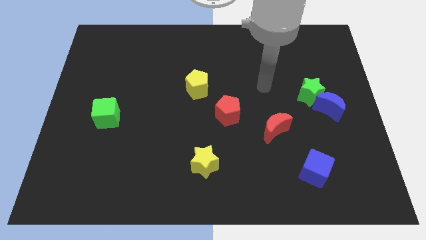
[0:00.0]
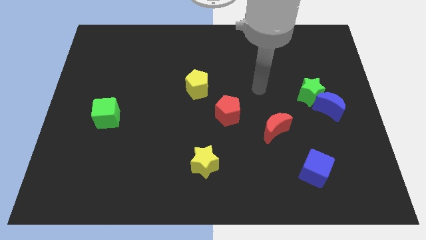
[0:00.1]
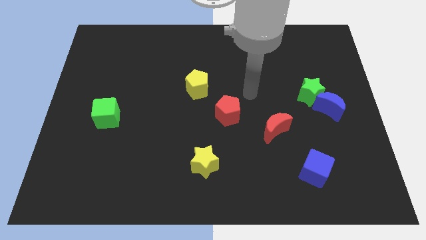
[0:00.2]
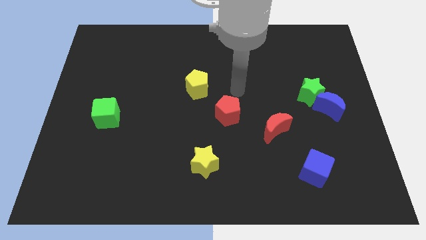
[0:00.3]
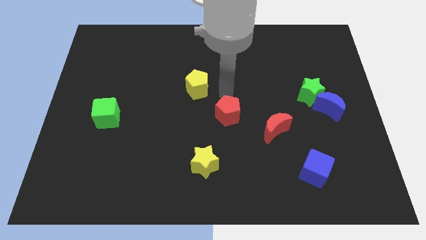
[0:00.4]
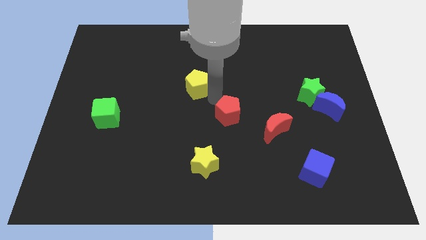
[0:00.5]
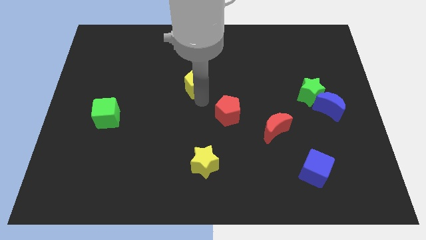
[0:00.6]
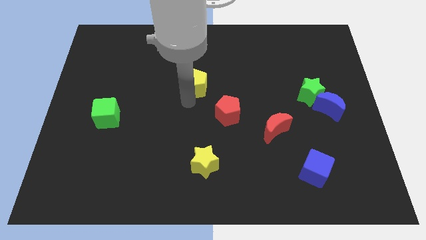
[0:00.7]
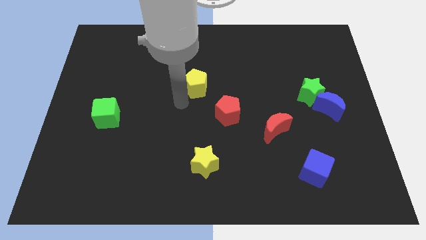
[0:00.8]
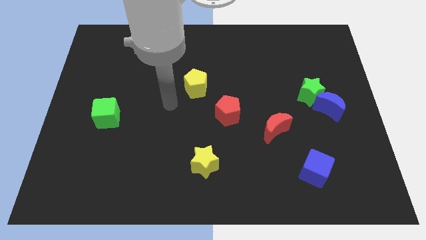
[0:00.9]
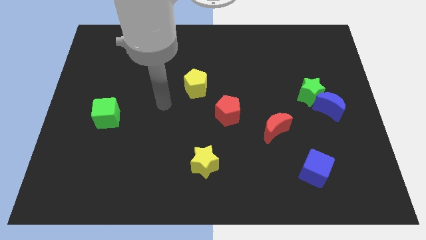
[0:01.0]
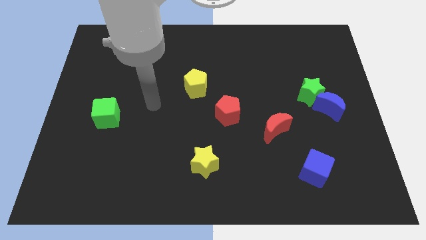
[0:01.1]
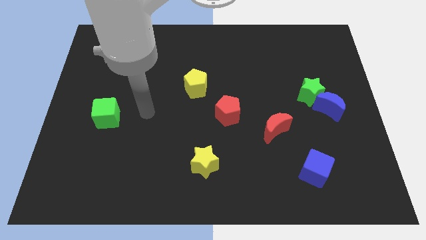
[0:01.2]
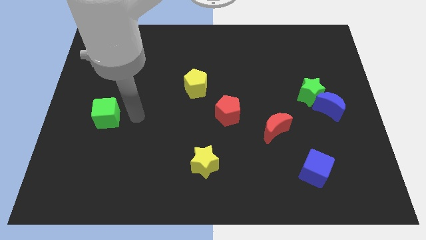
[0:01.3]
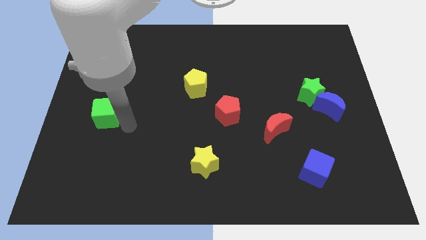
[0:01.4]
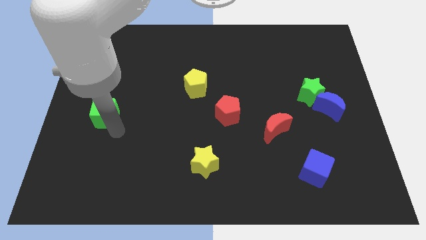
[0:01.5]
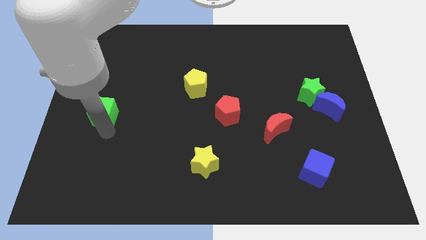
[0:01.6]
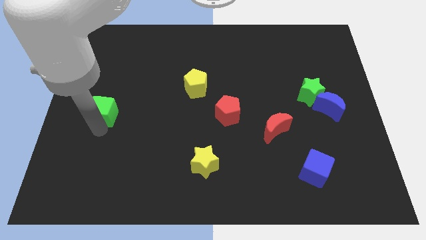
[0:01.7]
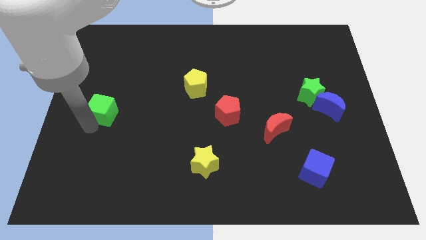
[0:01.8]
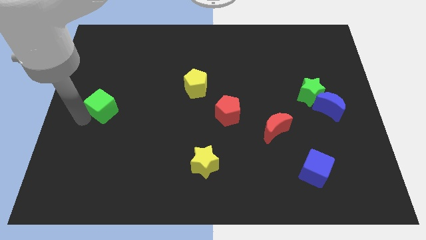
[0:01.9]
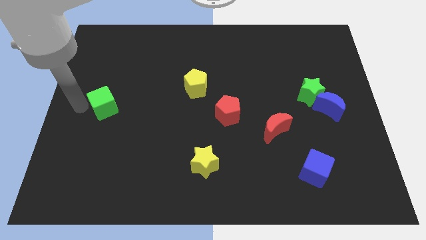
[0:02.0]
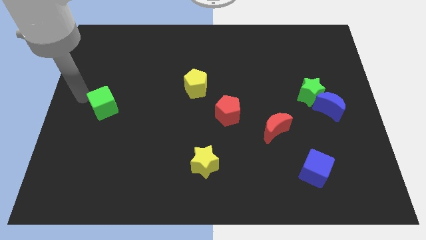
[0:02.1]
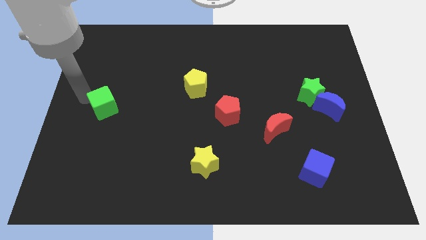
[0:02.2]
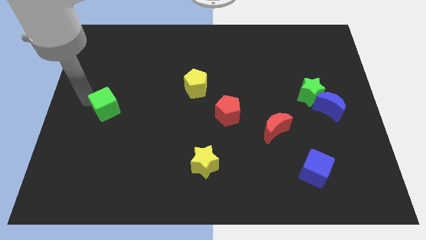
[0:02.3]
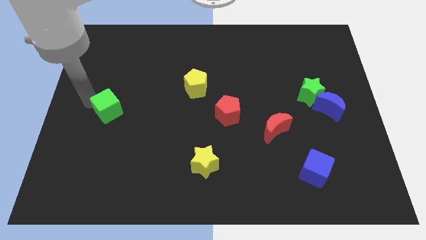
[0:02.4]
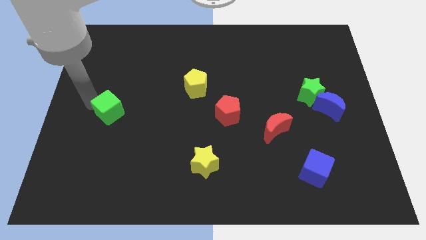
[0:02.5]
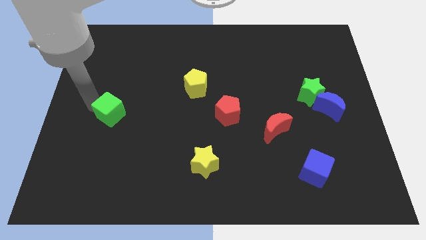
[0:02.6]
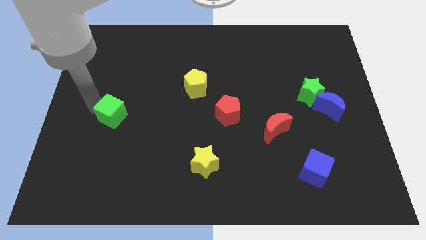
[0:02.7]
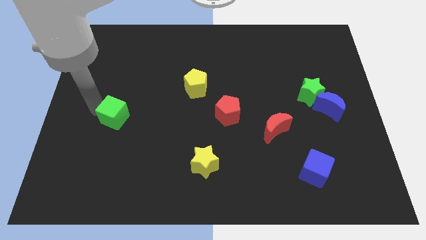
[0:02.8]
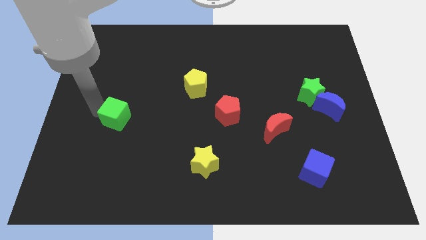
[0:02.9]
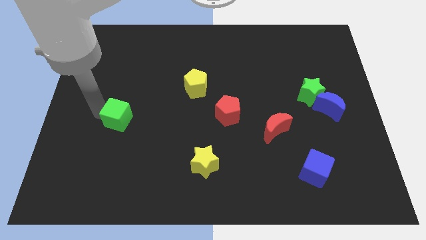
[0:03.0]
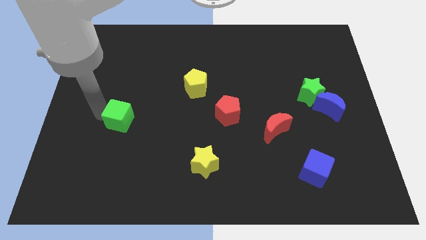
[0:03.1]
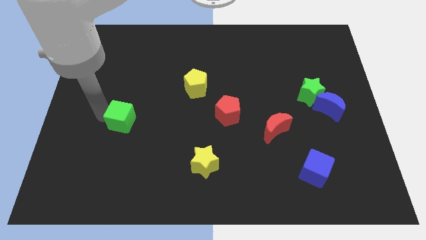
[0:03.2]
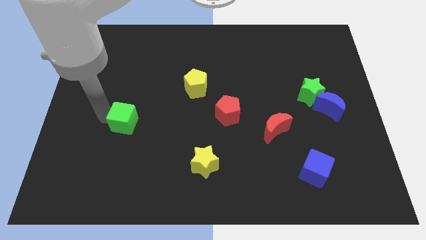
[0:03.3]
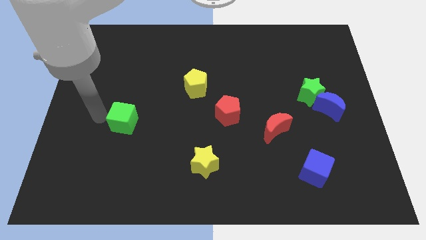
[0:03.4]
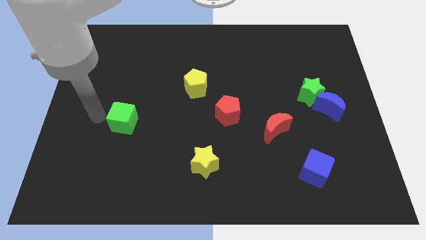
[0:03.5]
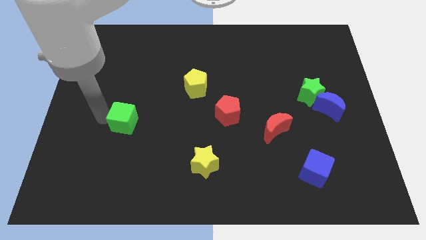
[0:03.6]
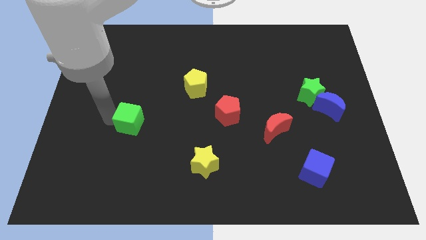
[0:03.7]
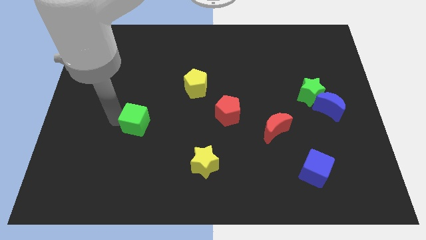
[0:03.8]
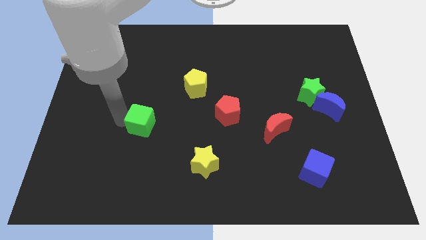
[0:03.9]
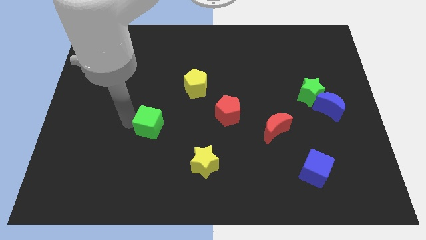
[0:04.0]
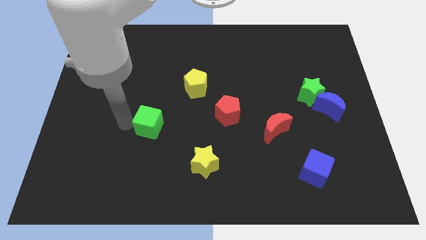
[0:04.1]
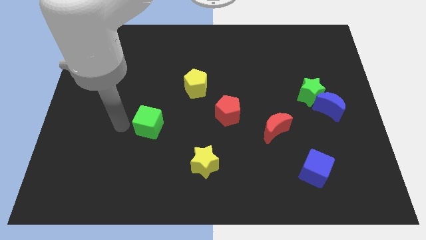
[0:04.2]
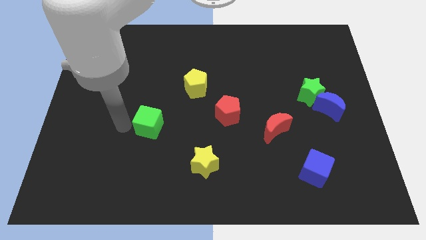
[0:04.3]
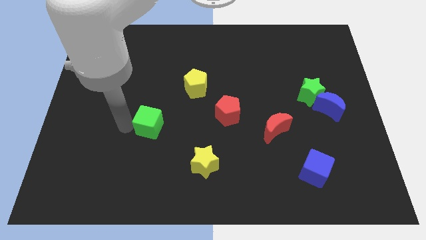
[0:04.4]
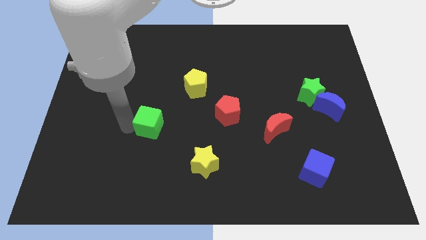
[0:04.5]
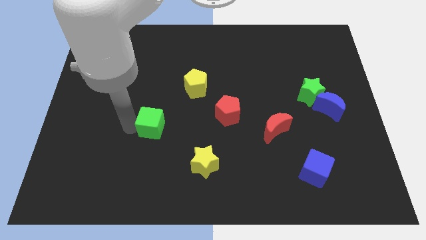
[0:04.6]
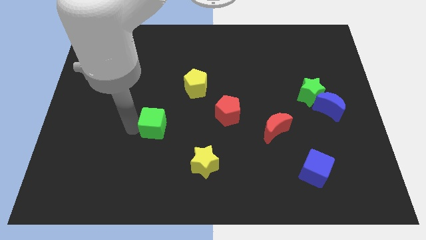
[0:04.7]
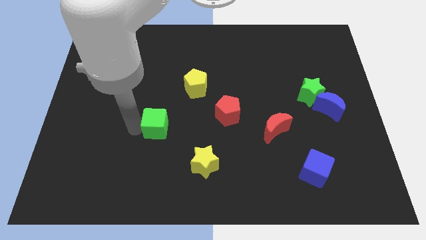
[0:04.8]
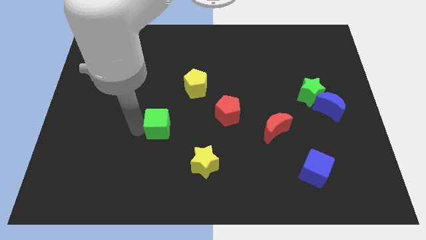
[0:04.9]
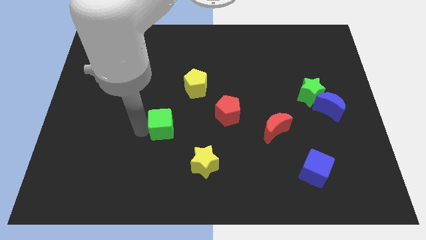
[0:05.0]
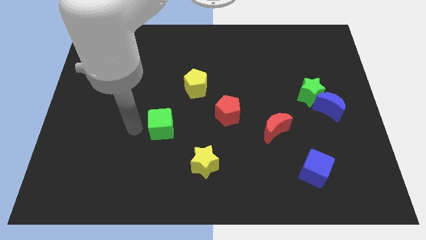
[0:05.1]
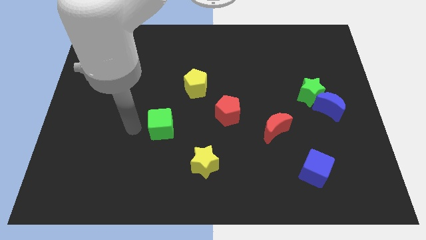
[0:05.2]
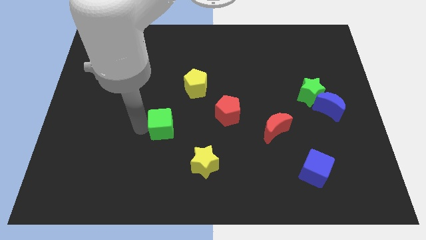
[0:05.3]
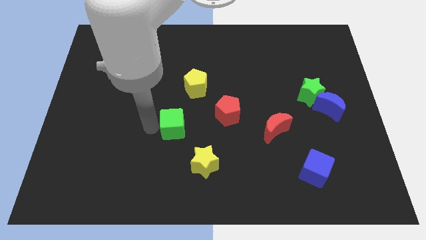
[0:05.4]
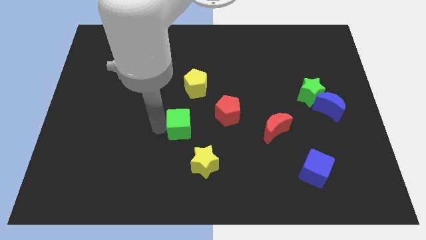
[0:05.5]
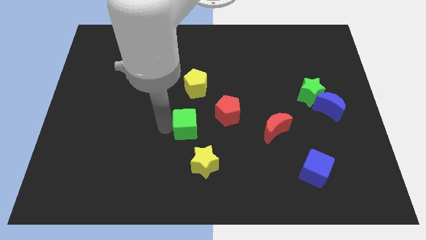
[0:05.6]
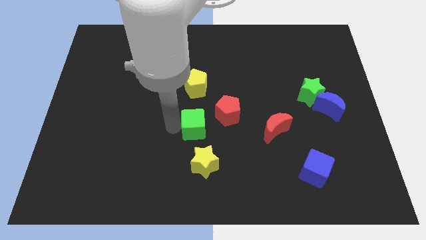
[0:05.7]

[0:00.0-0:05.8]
slide the green cube to the right

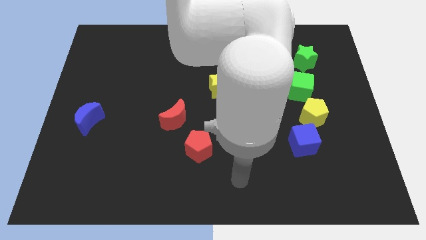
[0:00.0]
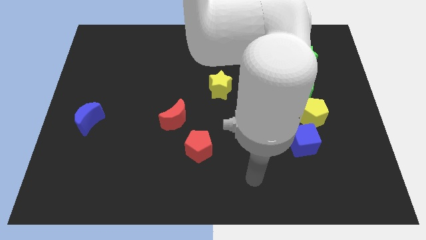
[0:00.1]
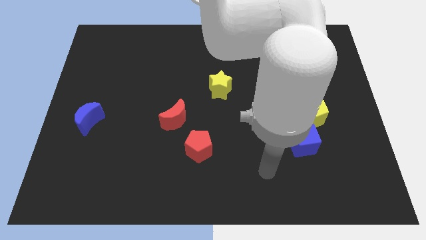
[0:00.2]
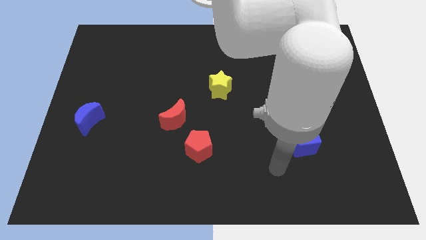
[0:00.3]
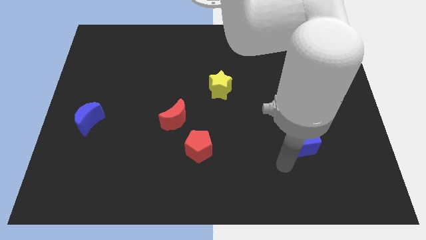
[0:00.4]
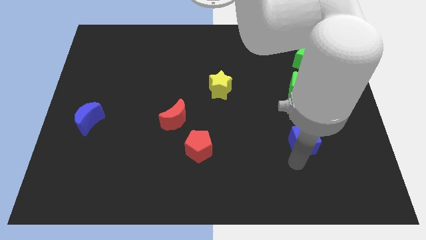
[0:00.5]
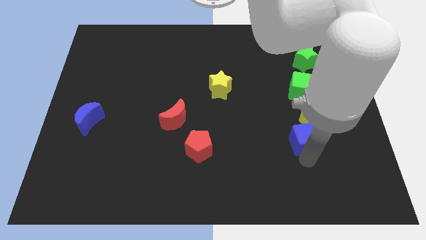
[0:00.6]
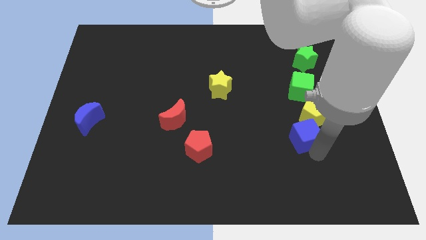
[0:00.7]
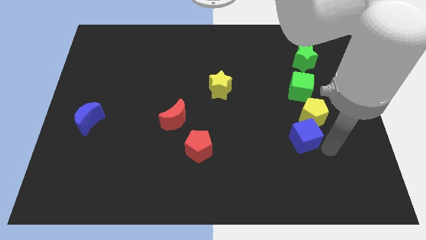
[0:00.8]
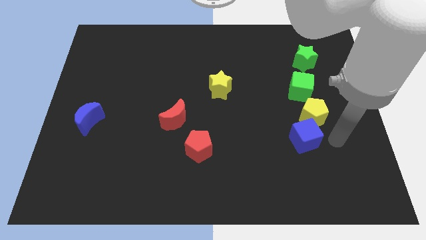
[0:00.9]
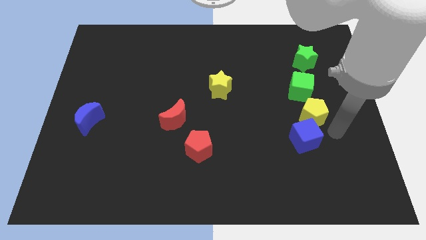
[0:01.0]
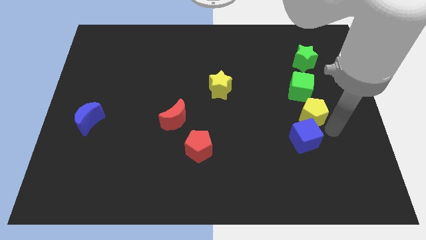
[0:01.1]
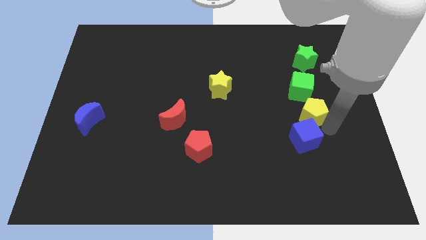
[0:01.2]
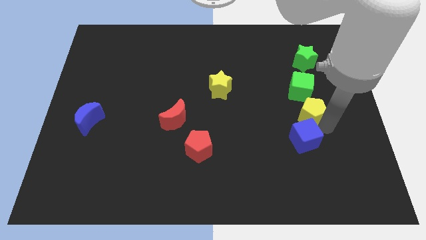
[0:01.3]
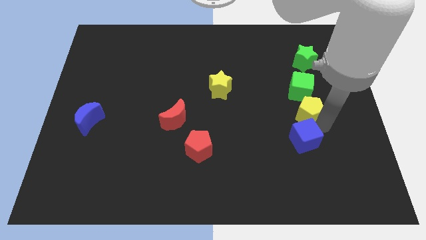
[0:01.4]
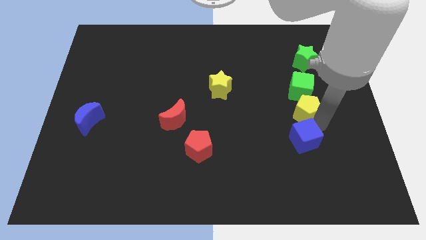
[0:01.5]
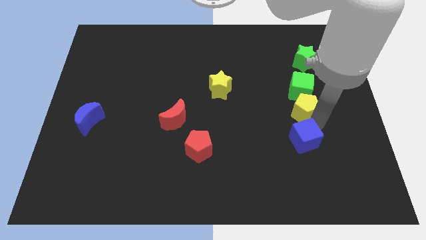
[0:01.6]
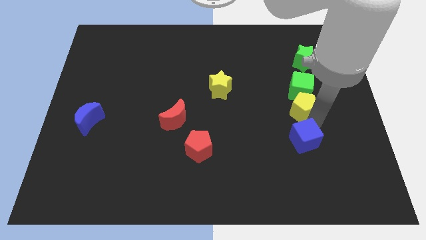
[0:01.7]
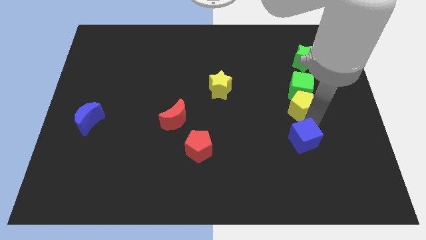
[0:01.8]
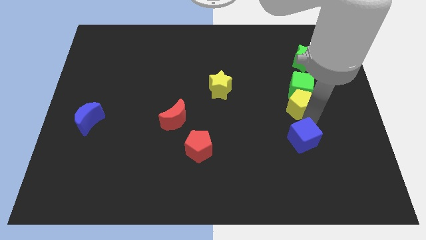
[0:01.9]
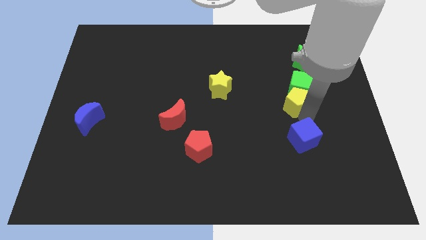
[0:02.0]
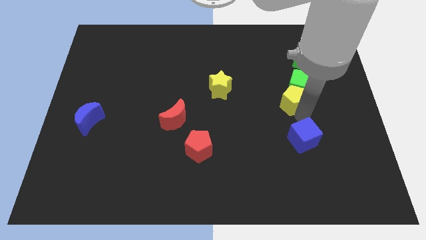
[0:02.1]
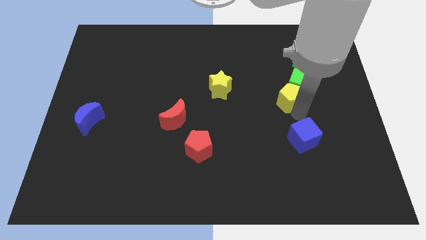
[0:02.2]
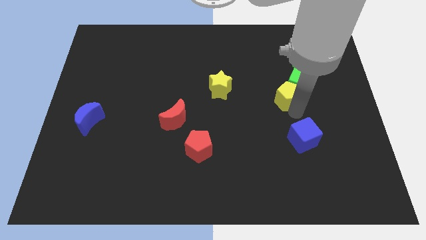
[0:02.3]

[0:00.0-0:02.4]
slightly move the yellow pentagon diagonally upwards and to the left
